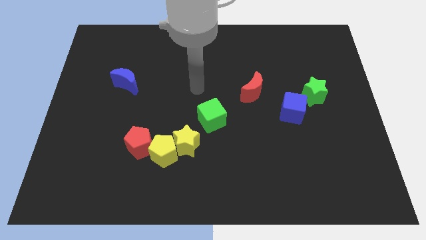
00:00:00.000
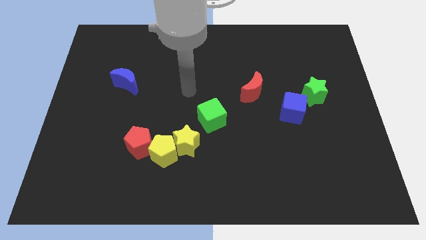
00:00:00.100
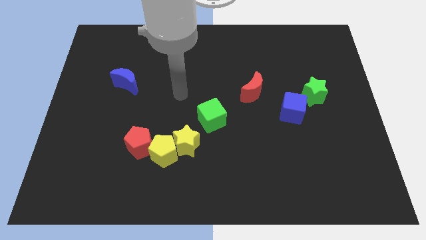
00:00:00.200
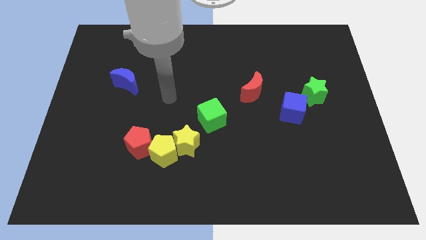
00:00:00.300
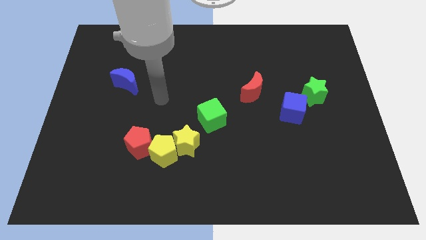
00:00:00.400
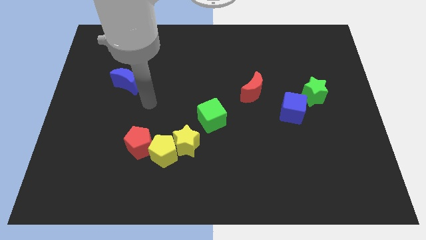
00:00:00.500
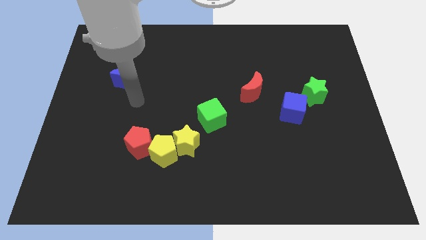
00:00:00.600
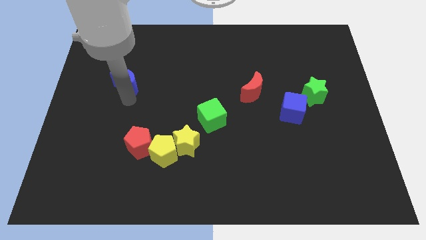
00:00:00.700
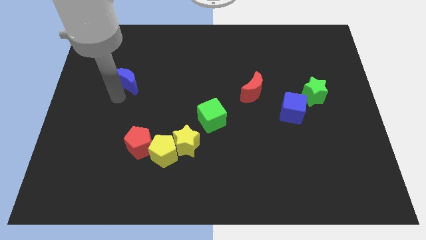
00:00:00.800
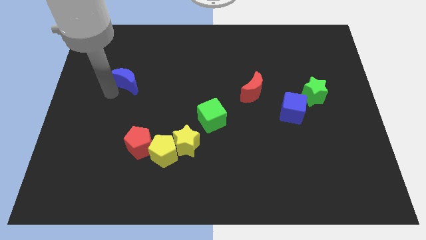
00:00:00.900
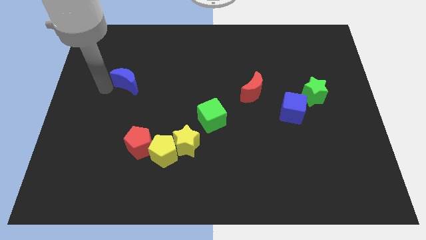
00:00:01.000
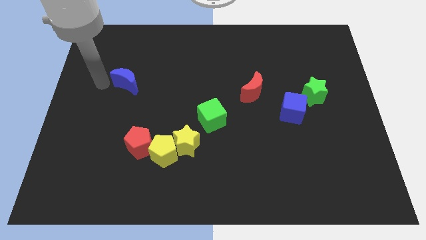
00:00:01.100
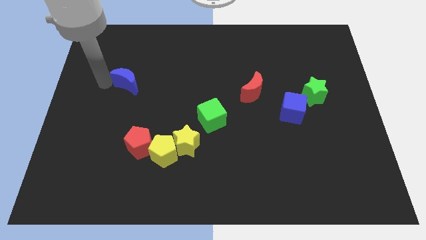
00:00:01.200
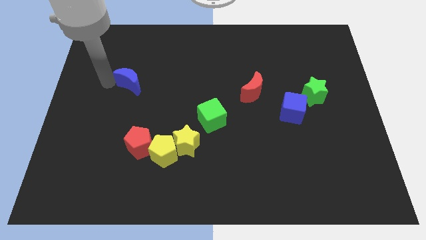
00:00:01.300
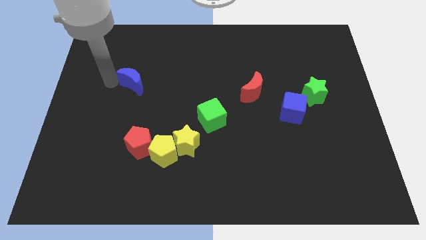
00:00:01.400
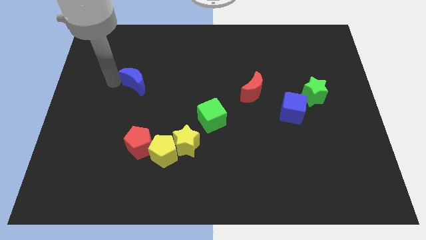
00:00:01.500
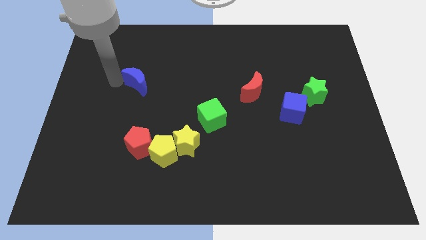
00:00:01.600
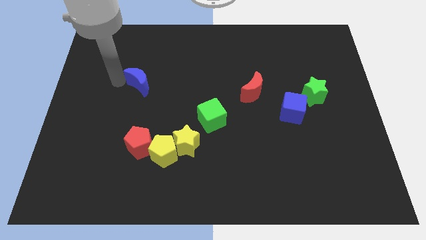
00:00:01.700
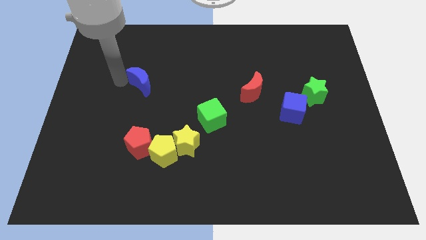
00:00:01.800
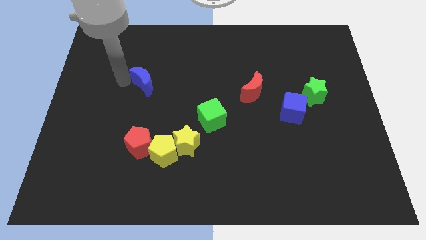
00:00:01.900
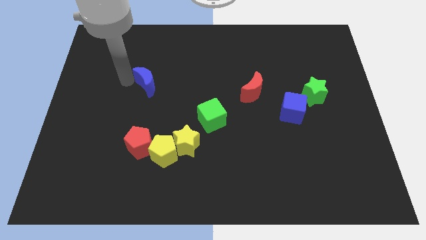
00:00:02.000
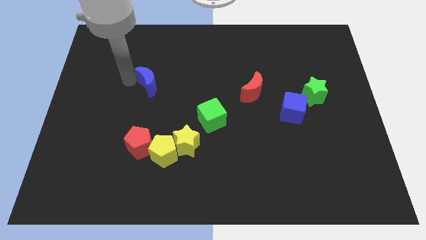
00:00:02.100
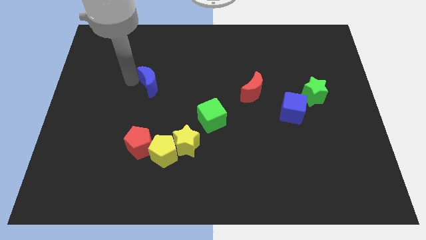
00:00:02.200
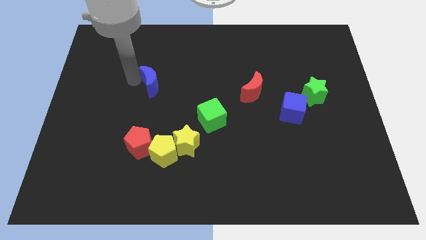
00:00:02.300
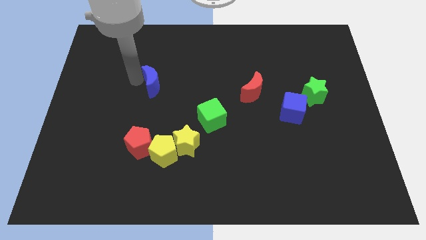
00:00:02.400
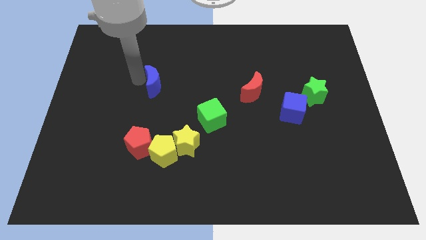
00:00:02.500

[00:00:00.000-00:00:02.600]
slightly move the blue moon right

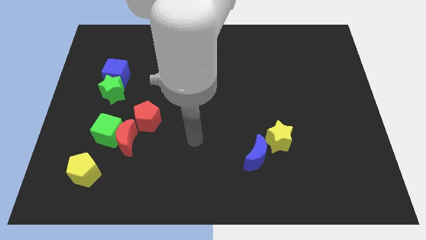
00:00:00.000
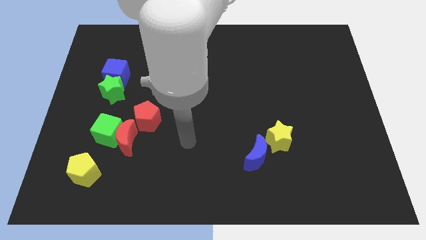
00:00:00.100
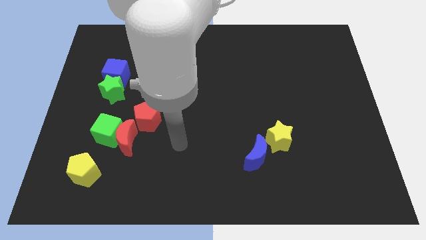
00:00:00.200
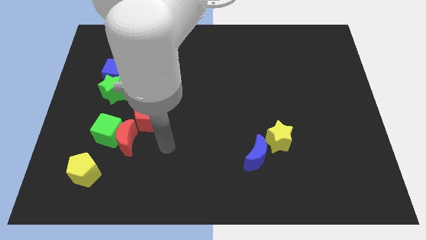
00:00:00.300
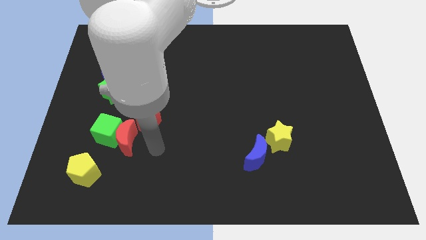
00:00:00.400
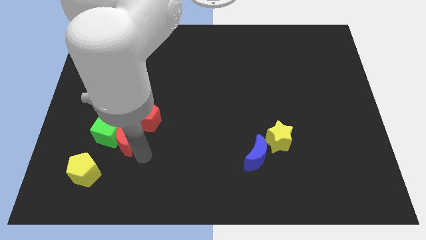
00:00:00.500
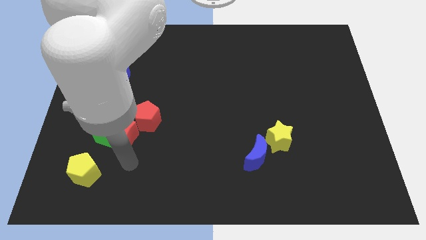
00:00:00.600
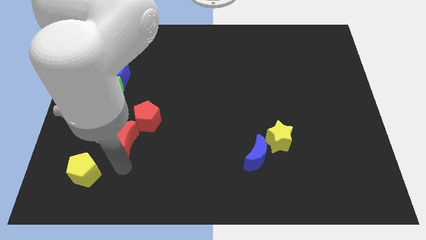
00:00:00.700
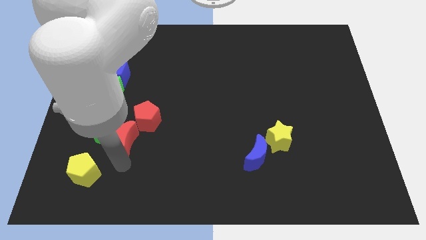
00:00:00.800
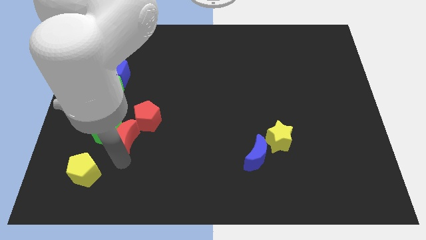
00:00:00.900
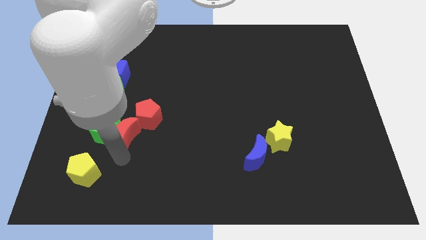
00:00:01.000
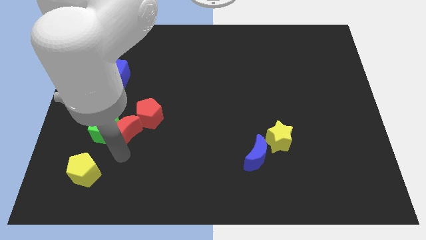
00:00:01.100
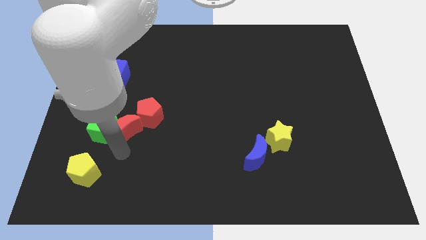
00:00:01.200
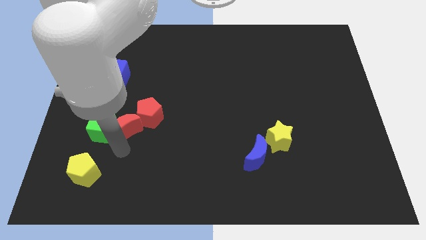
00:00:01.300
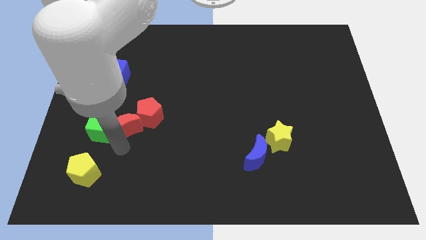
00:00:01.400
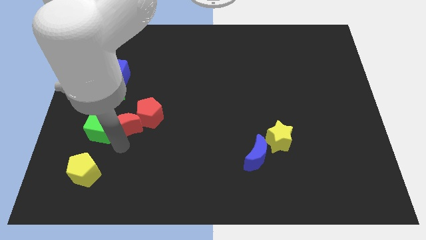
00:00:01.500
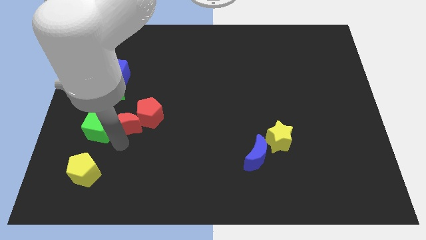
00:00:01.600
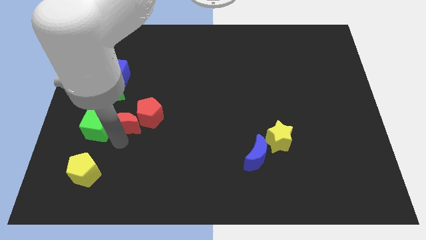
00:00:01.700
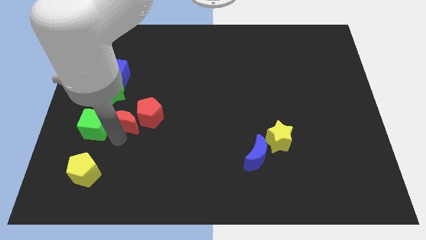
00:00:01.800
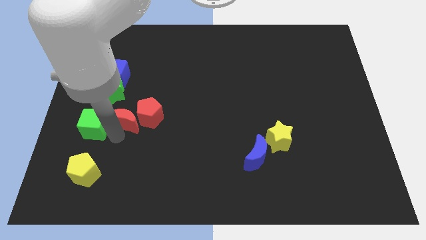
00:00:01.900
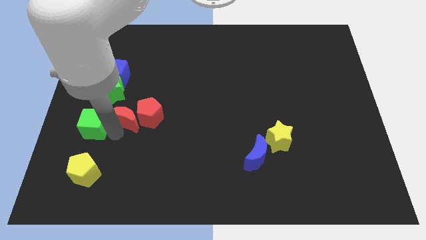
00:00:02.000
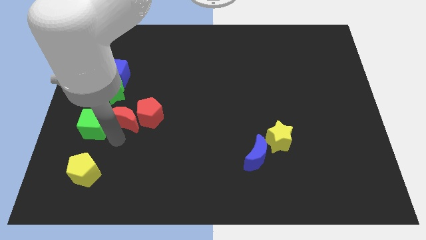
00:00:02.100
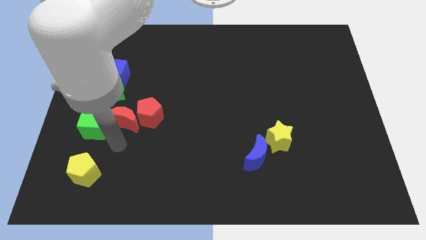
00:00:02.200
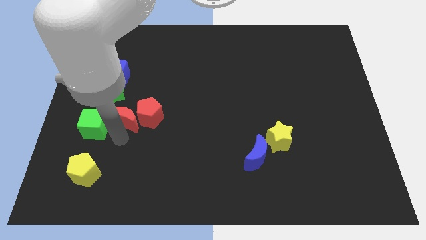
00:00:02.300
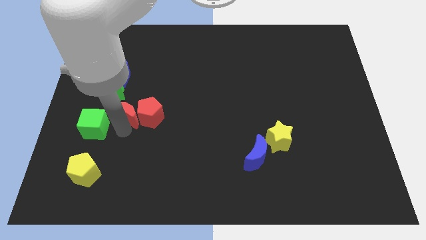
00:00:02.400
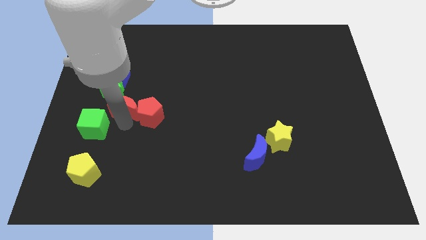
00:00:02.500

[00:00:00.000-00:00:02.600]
slightly move the red moon upwards

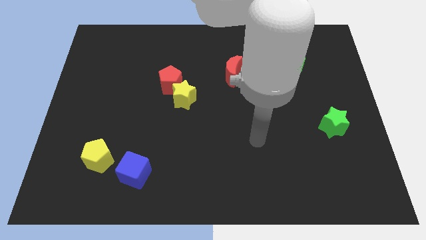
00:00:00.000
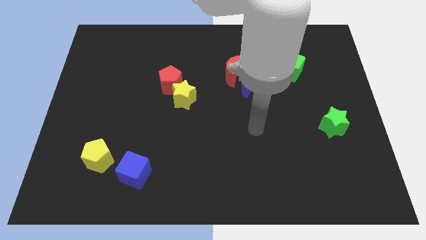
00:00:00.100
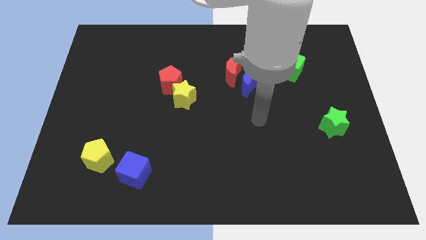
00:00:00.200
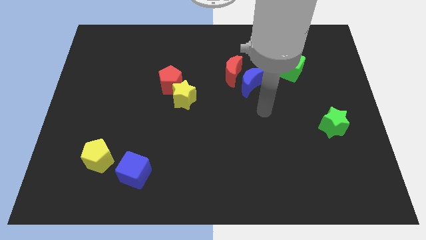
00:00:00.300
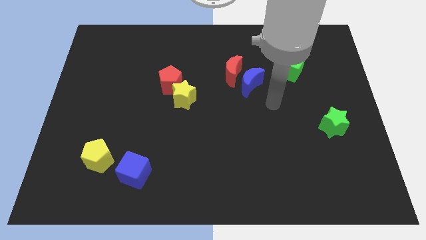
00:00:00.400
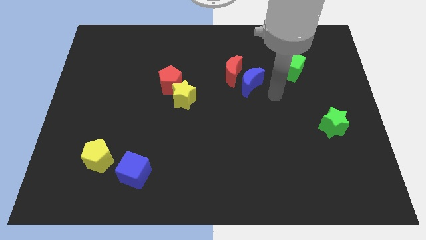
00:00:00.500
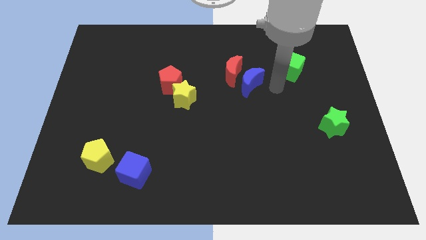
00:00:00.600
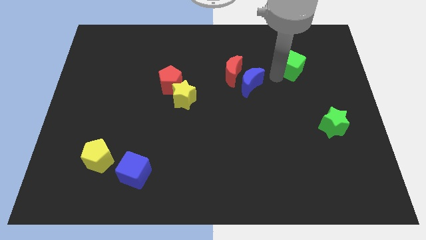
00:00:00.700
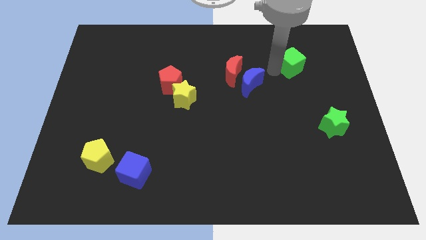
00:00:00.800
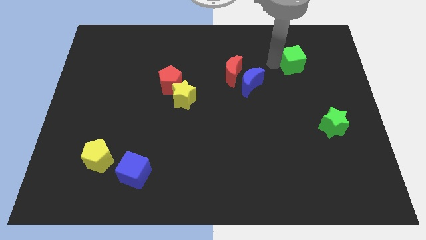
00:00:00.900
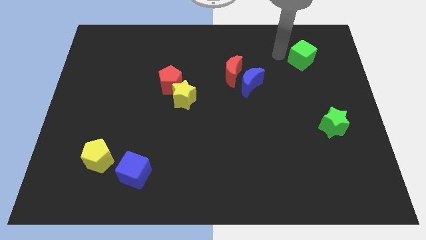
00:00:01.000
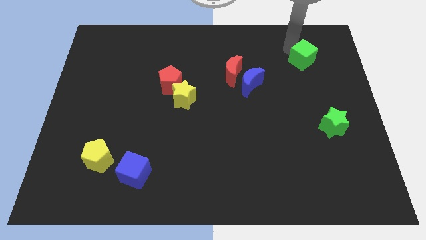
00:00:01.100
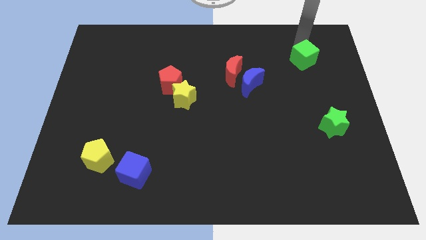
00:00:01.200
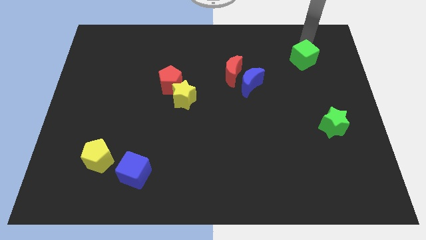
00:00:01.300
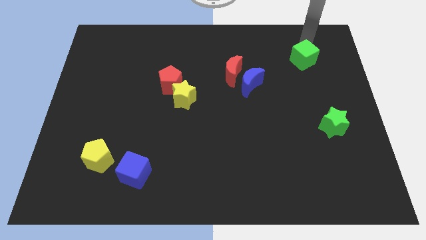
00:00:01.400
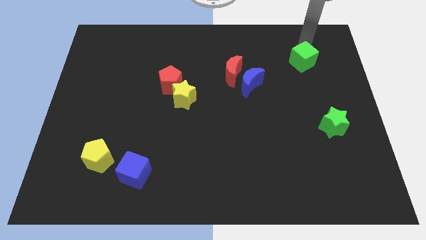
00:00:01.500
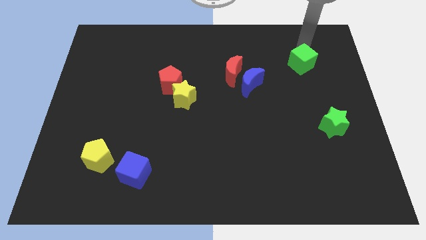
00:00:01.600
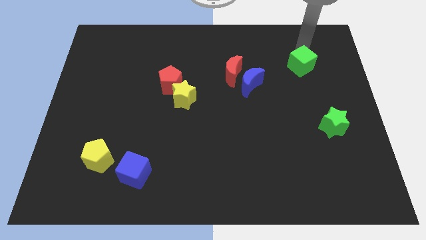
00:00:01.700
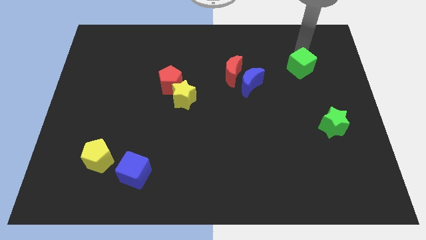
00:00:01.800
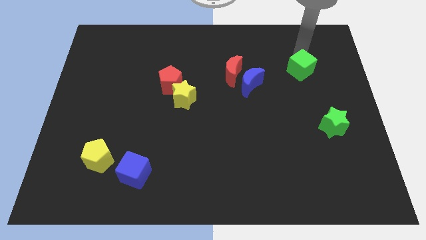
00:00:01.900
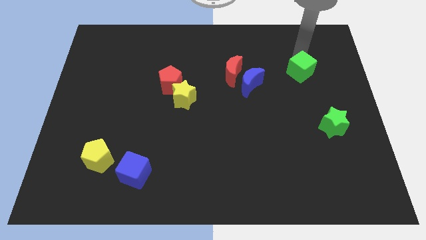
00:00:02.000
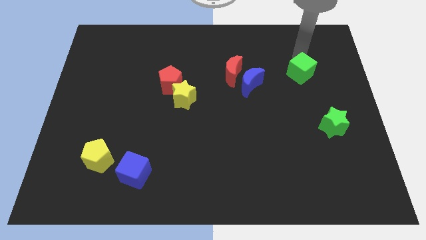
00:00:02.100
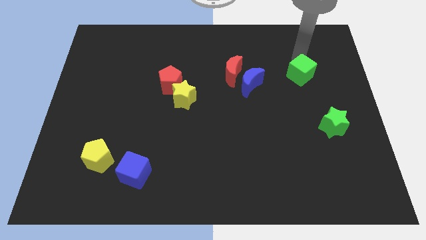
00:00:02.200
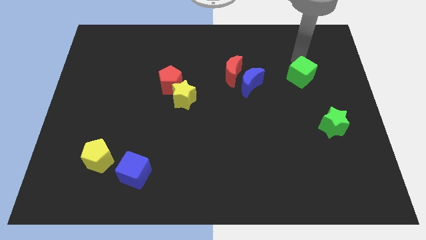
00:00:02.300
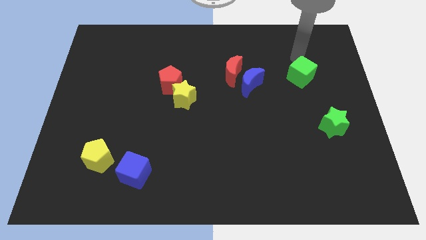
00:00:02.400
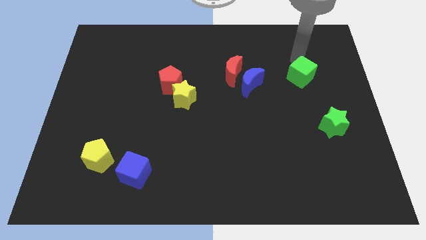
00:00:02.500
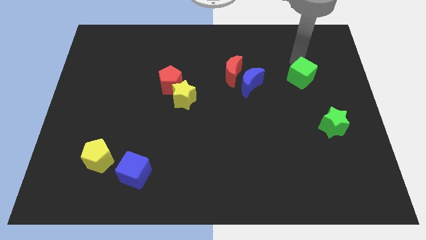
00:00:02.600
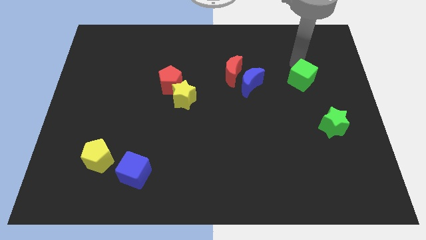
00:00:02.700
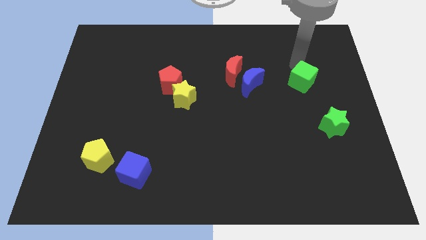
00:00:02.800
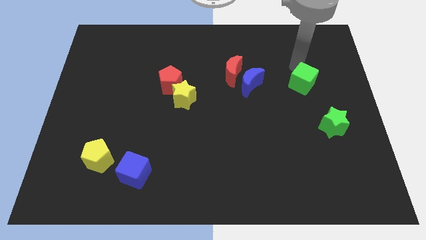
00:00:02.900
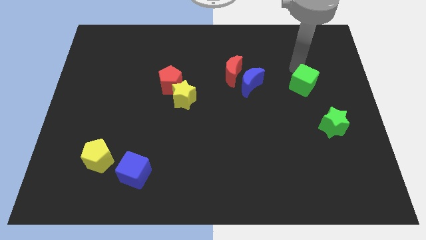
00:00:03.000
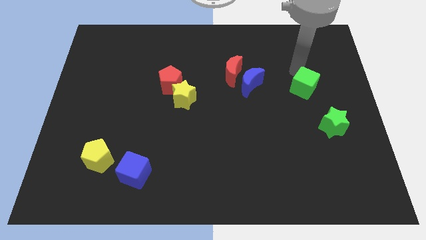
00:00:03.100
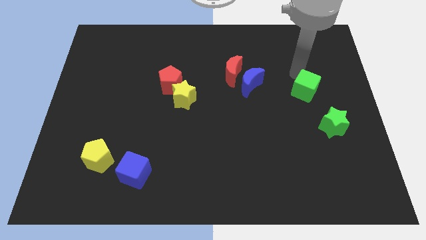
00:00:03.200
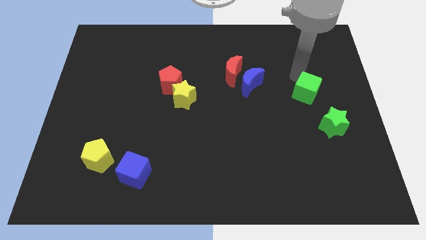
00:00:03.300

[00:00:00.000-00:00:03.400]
slide the green cube somewhat down
